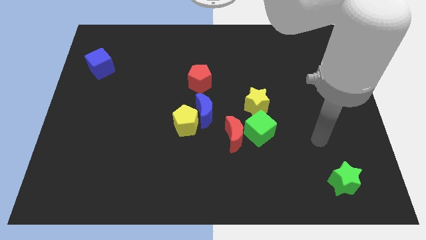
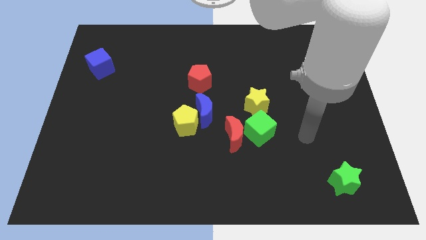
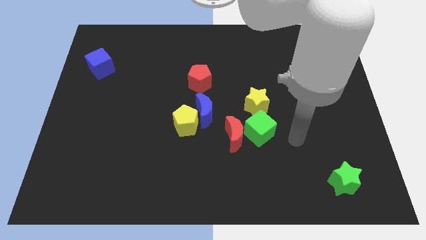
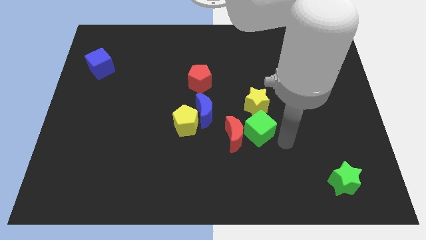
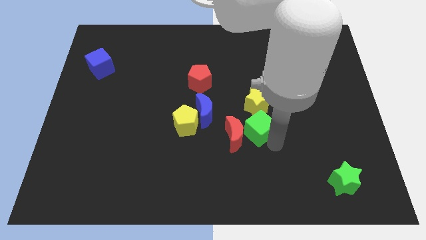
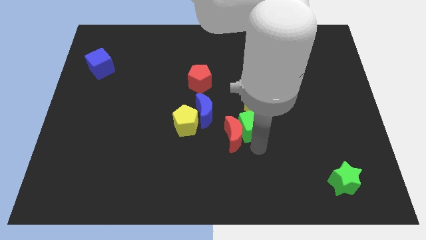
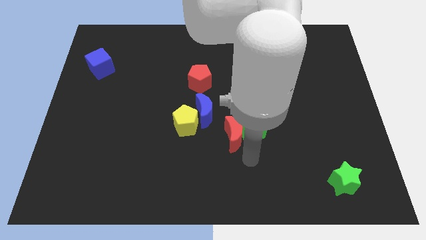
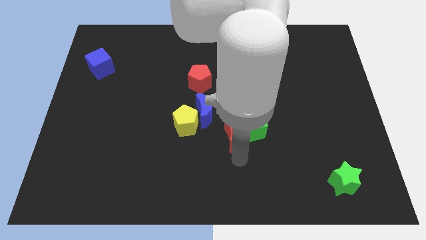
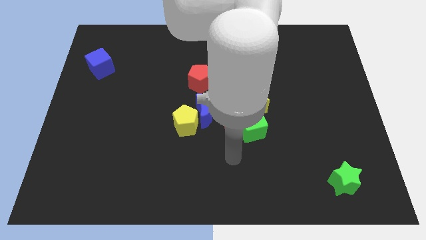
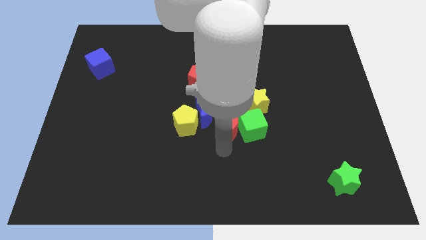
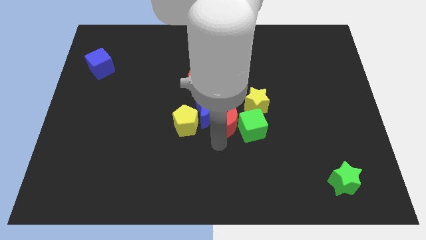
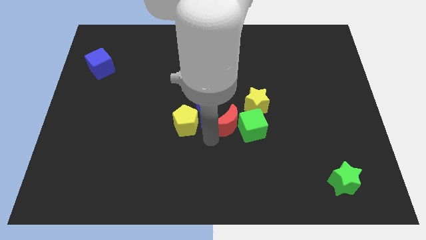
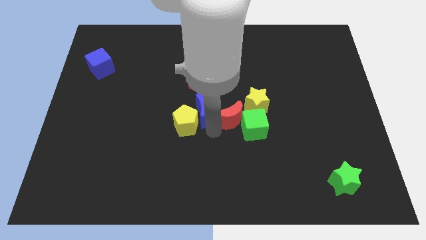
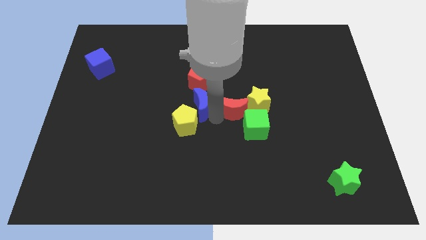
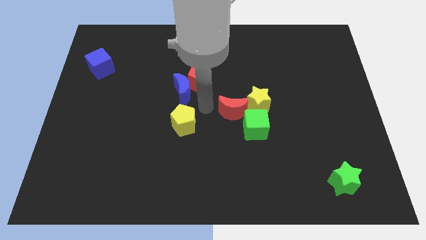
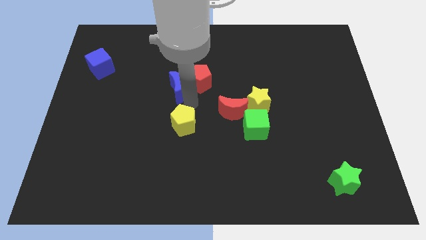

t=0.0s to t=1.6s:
separate the yellow pentagon from the blue moon

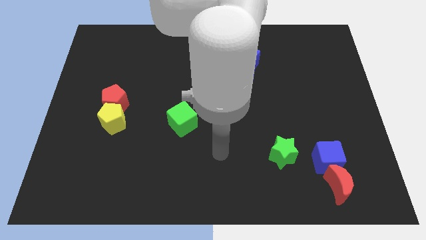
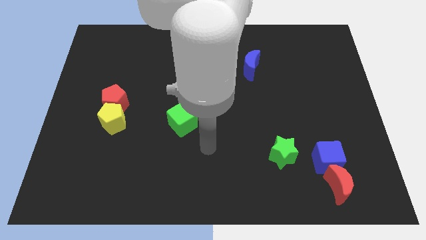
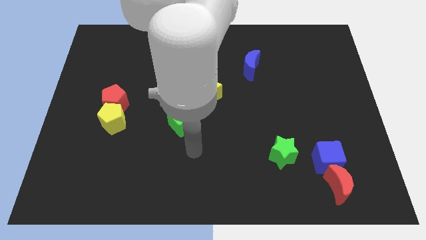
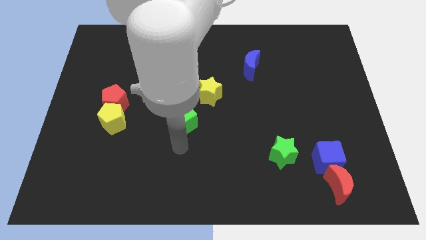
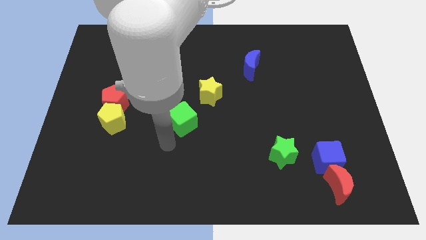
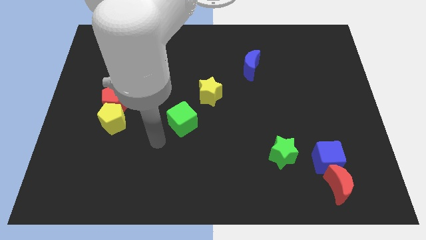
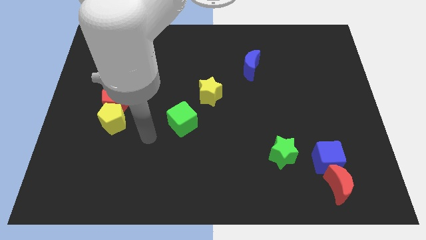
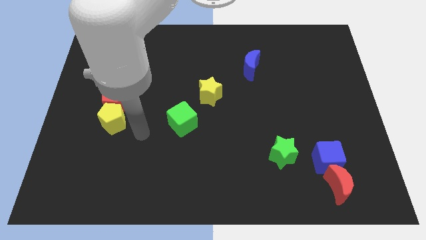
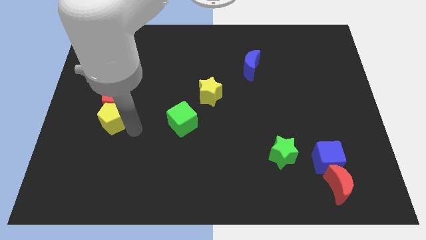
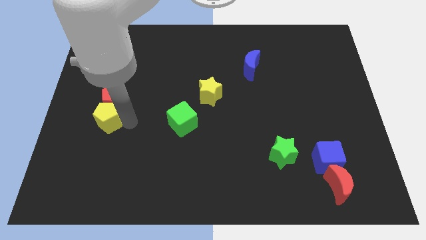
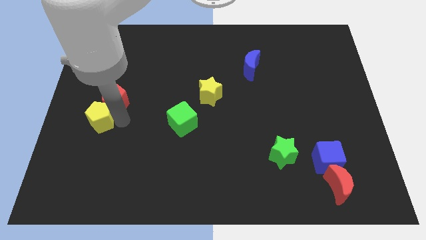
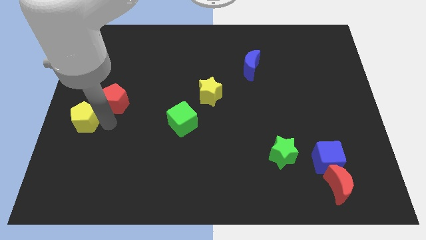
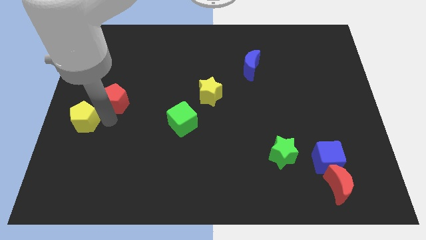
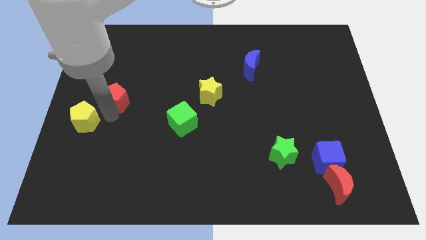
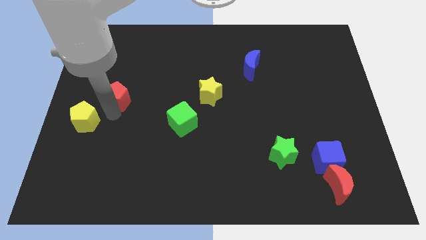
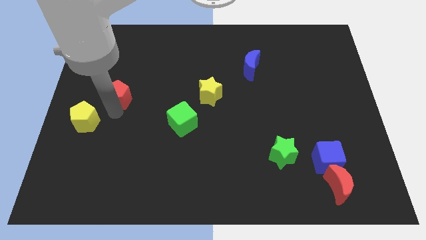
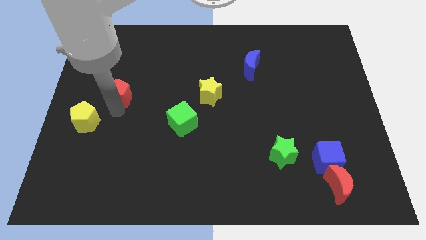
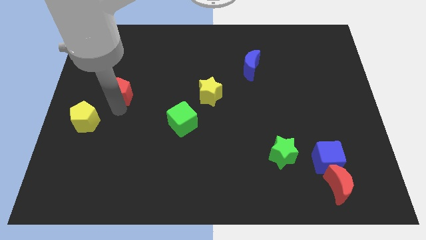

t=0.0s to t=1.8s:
move the red pentagon away from the yellow pentagon

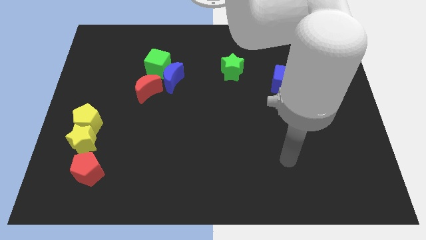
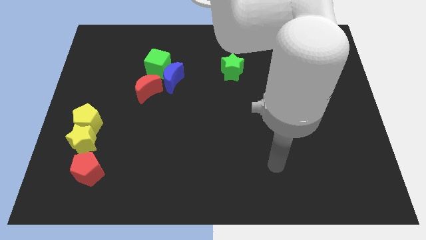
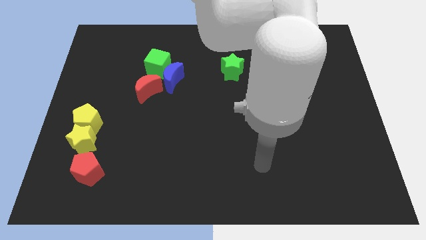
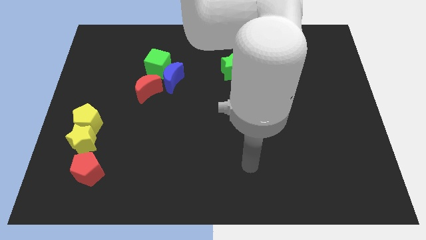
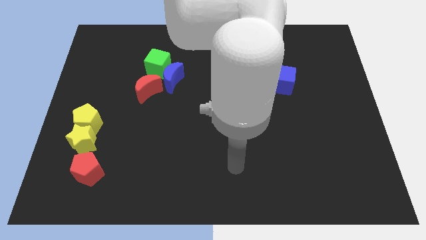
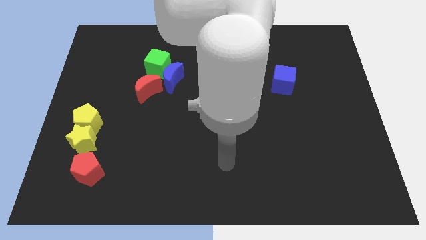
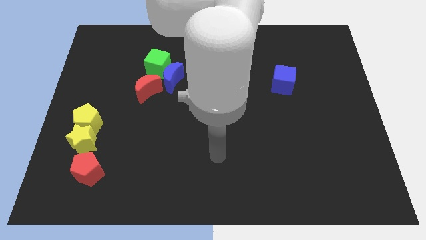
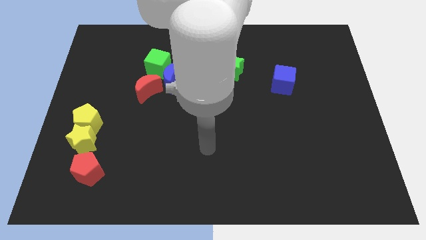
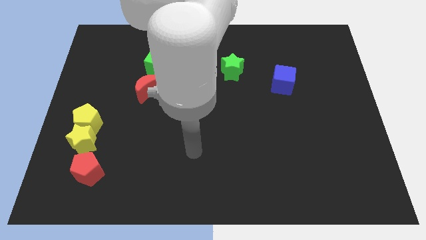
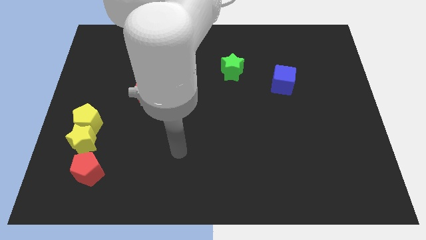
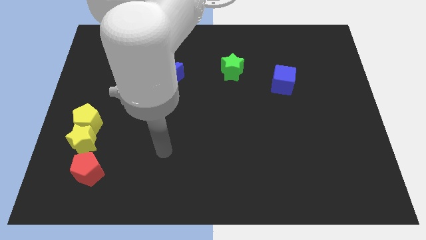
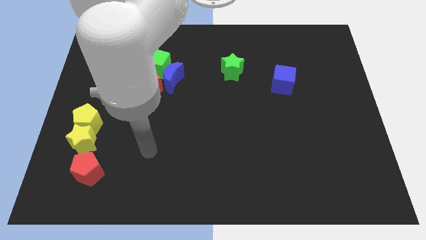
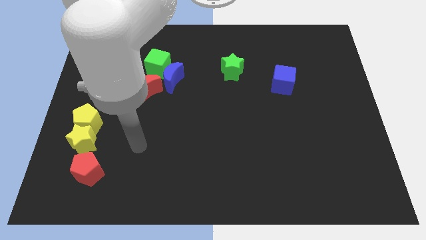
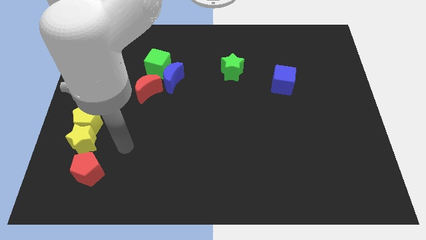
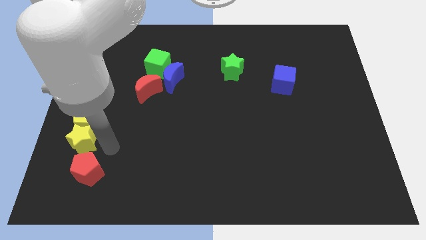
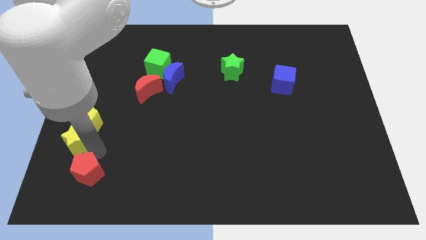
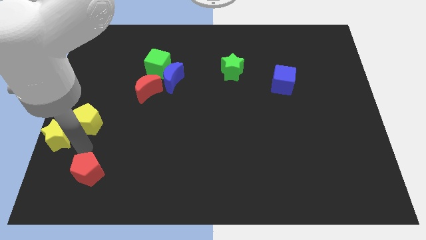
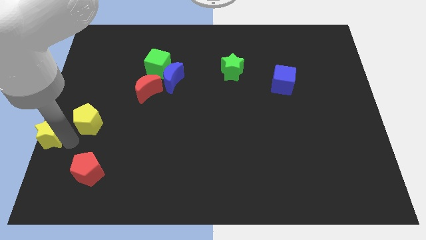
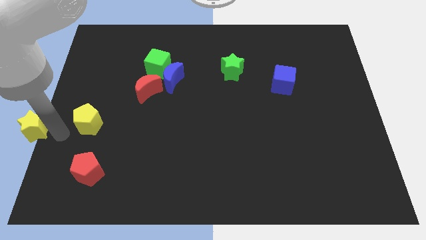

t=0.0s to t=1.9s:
separate the yellow pentagon from the yellow star

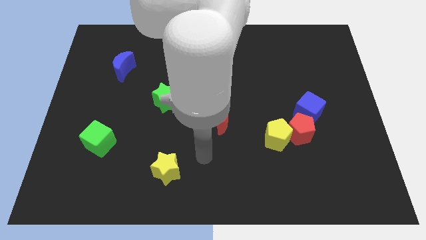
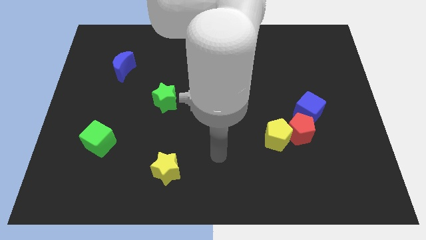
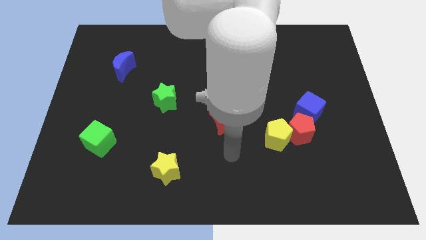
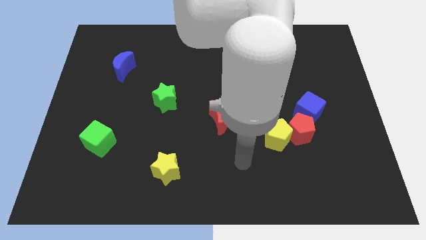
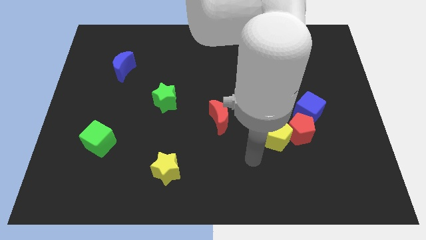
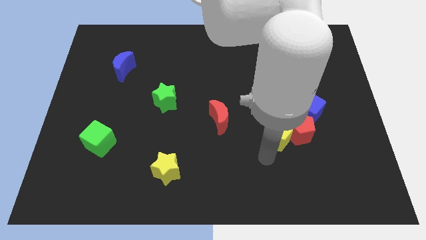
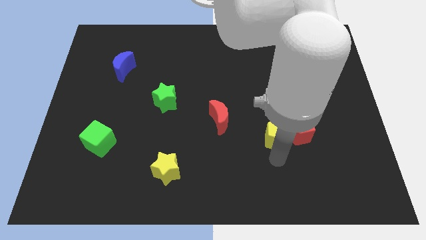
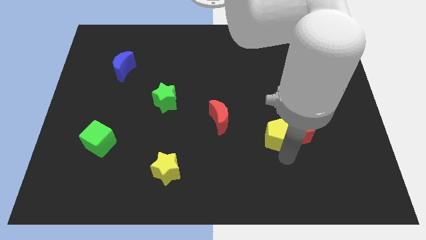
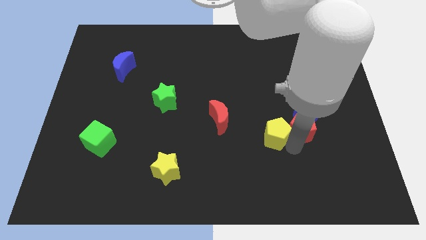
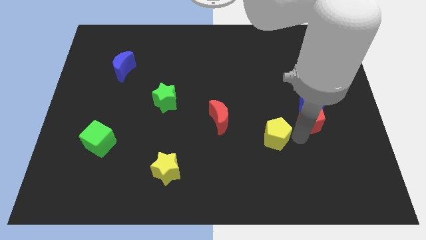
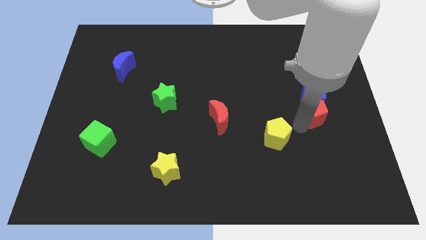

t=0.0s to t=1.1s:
separate the yellow pentagon from the red pentagon

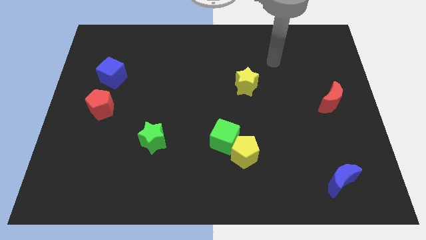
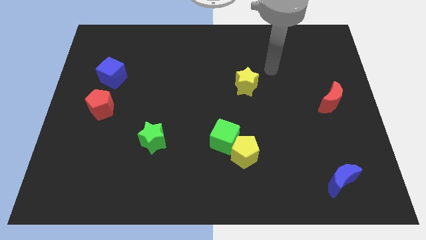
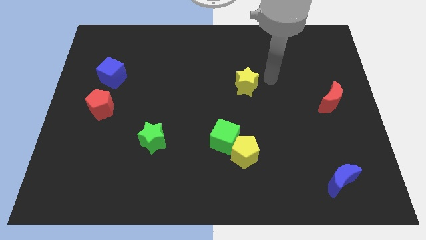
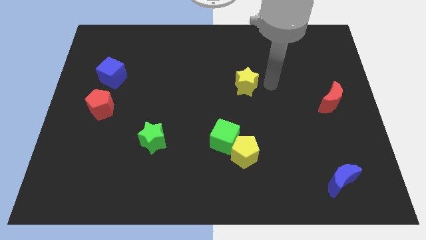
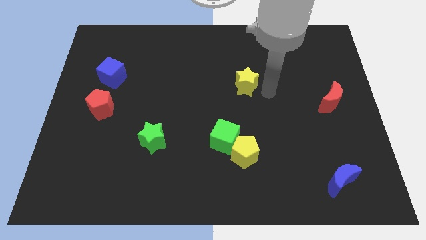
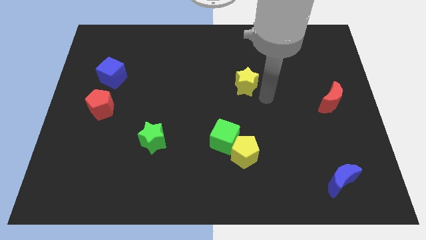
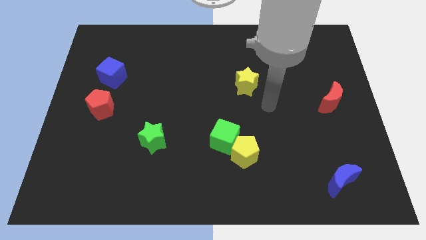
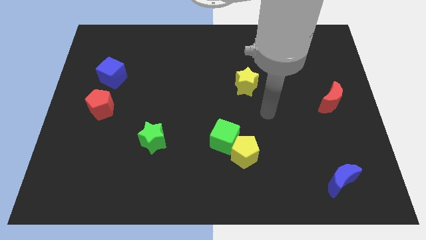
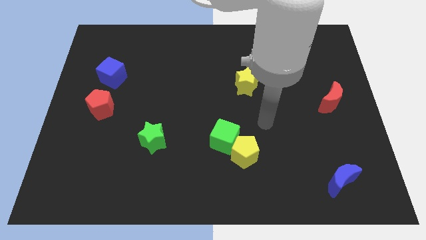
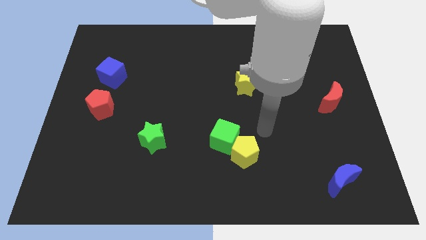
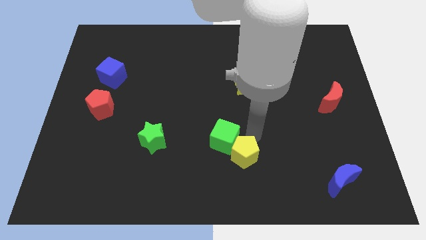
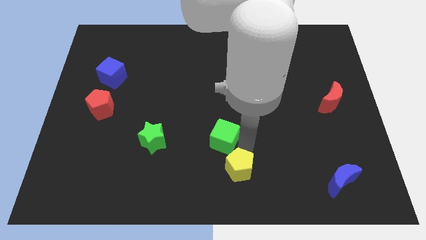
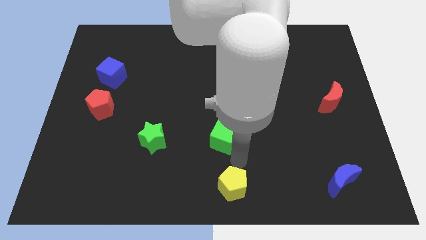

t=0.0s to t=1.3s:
pull the green cube apart from the yellow pentagon

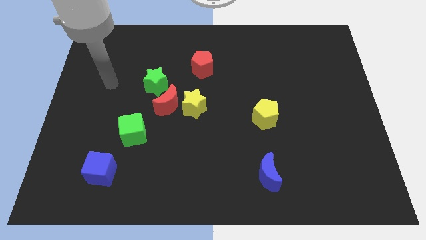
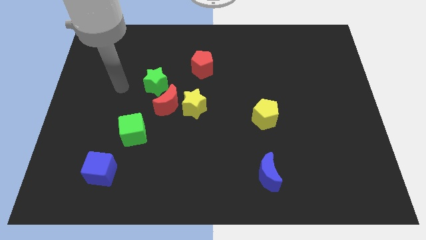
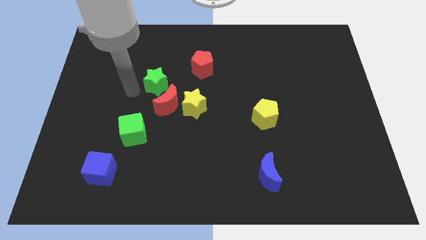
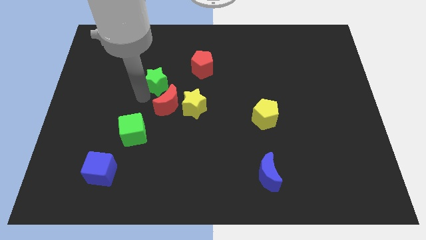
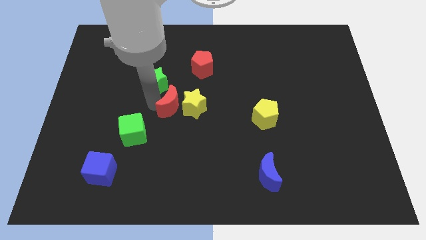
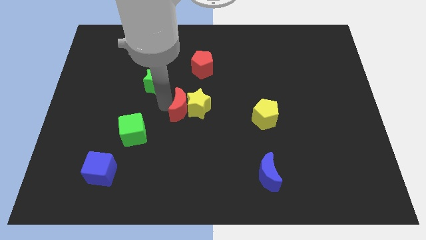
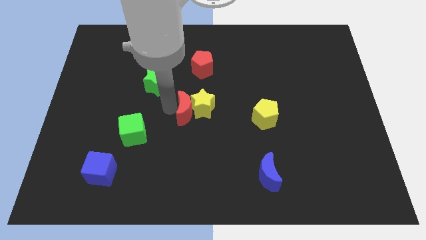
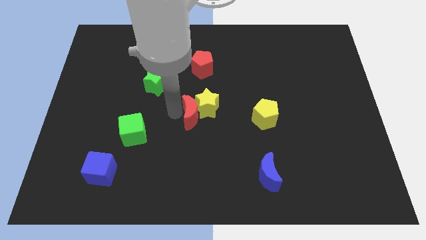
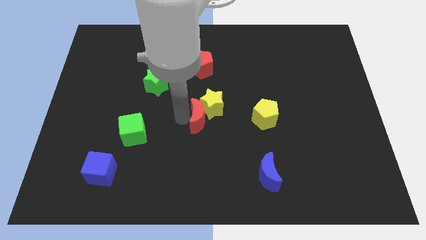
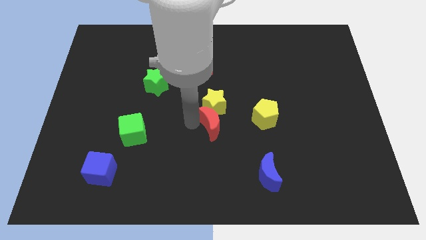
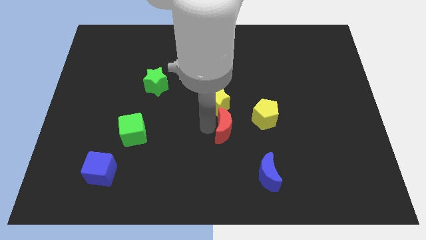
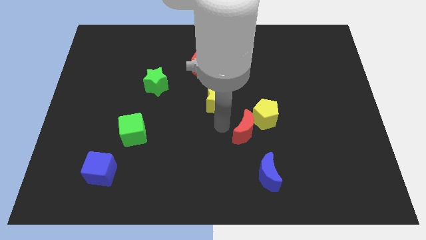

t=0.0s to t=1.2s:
pull the yellow star apart from the red moon

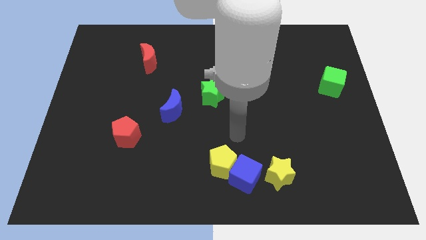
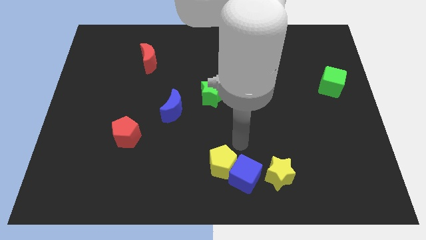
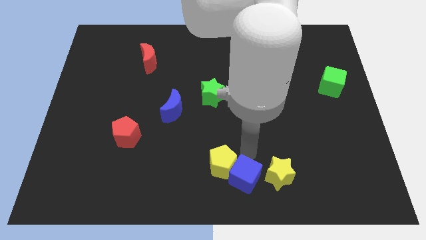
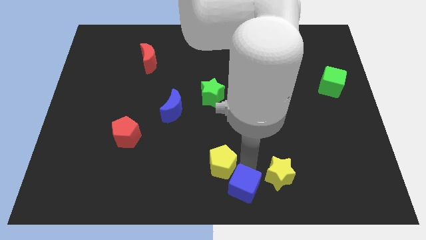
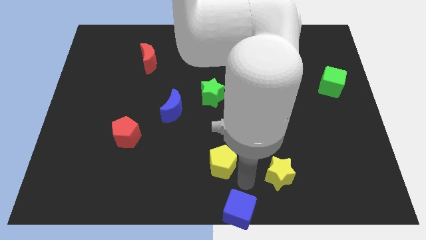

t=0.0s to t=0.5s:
pull the yellow pentagon apart from the blue cube

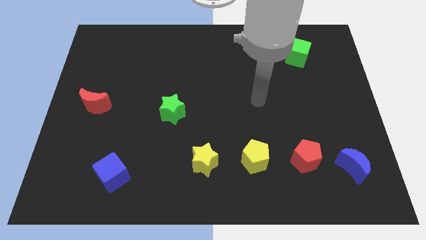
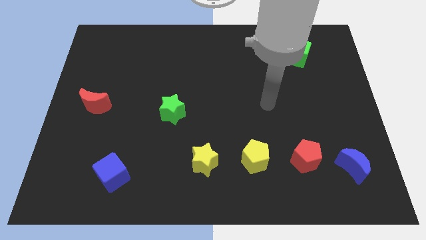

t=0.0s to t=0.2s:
move the red pentagon away from the blue moon
